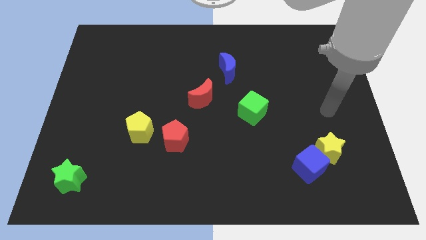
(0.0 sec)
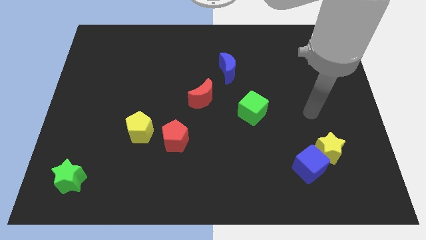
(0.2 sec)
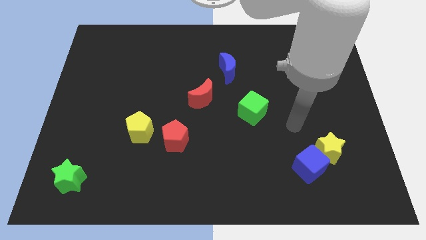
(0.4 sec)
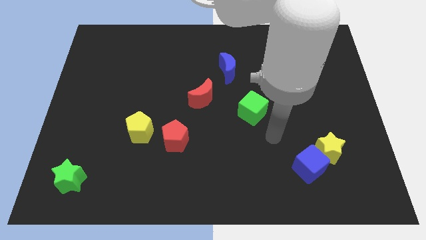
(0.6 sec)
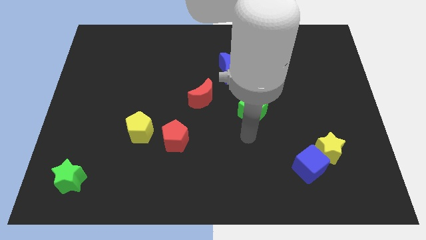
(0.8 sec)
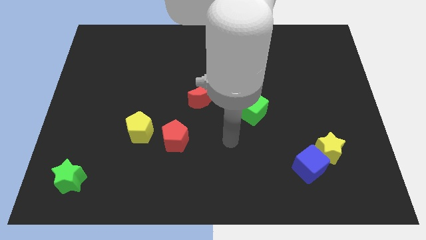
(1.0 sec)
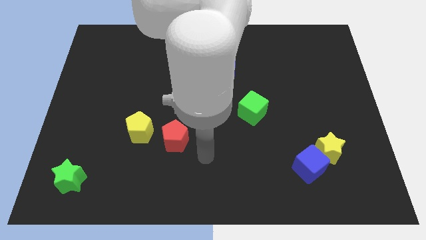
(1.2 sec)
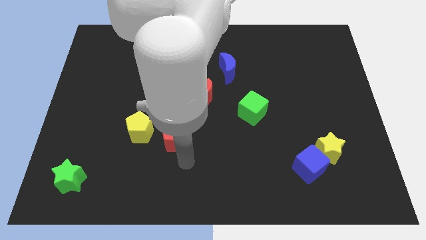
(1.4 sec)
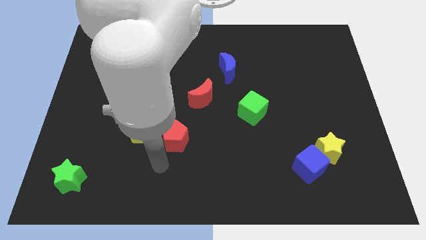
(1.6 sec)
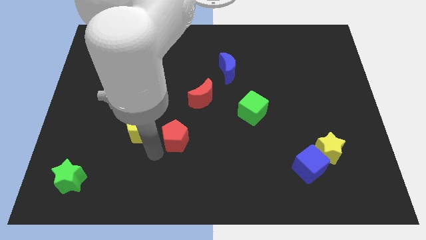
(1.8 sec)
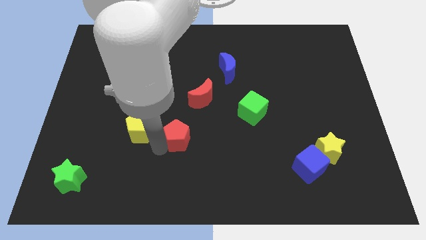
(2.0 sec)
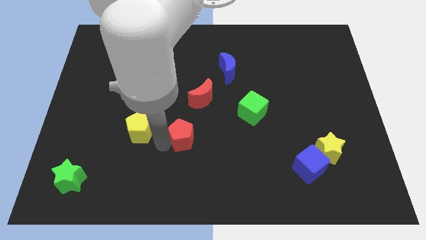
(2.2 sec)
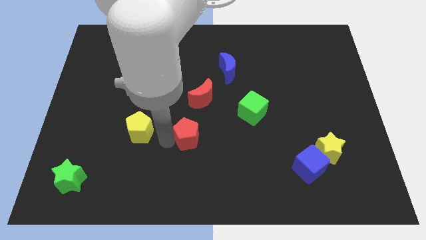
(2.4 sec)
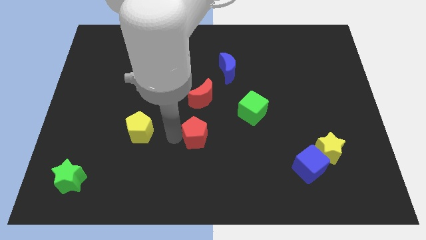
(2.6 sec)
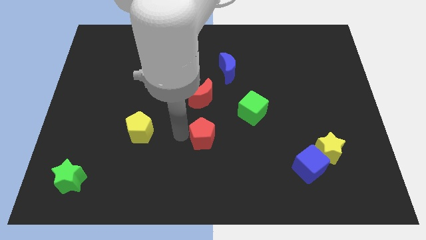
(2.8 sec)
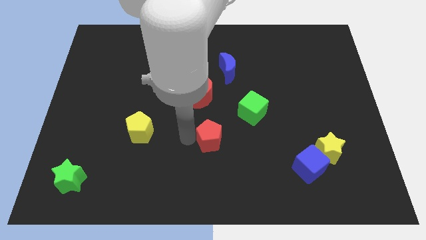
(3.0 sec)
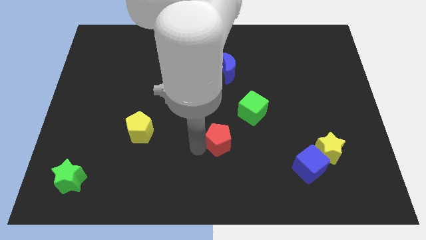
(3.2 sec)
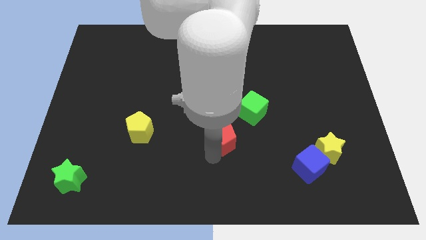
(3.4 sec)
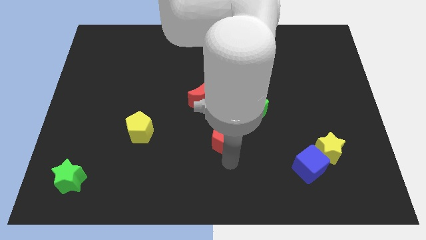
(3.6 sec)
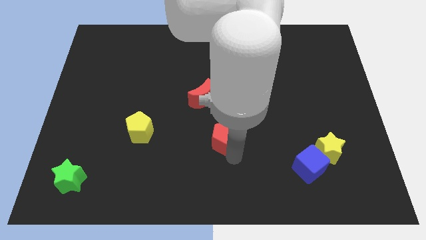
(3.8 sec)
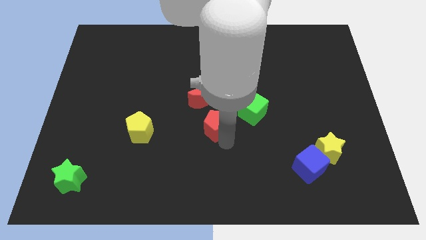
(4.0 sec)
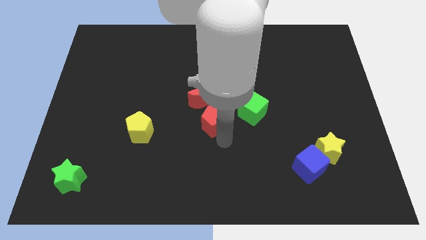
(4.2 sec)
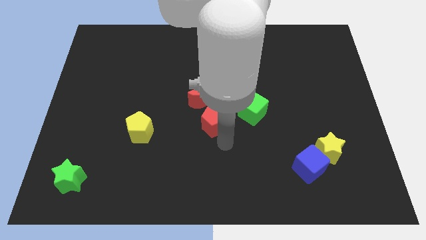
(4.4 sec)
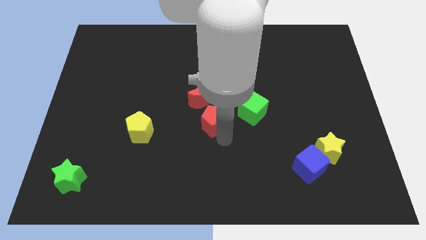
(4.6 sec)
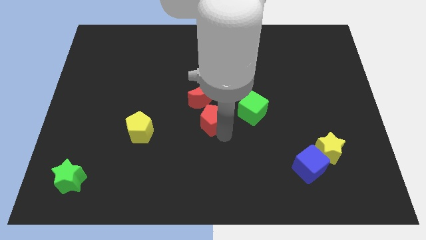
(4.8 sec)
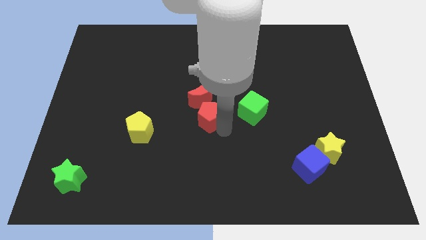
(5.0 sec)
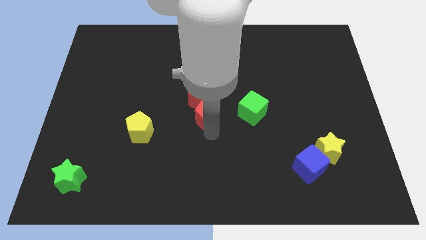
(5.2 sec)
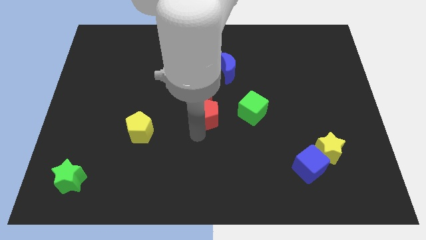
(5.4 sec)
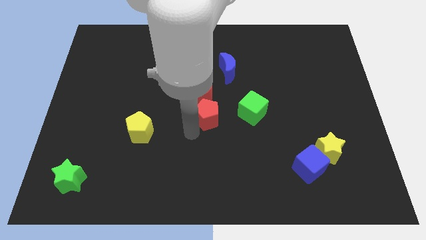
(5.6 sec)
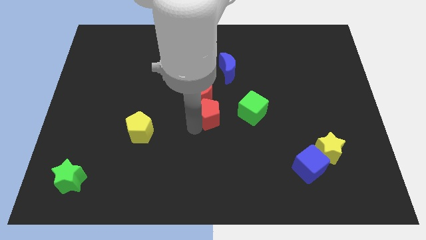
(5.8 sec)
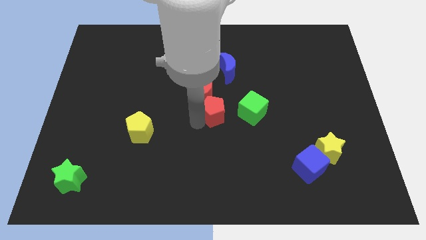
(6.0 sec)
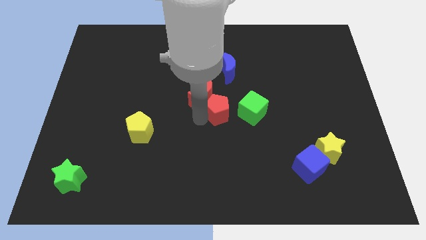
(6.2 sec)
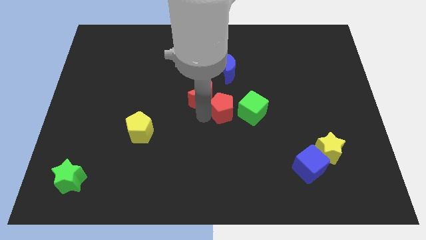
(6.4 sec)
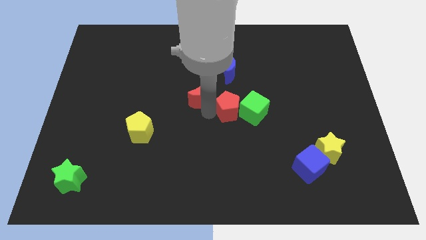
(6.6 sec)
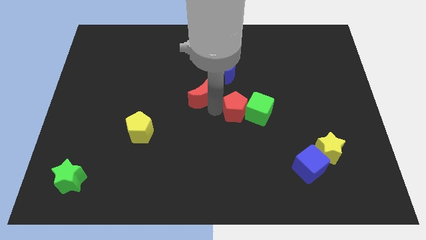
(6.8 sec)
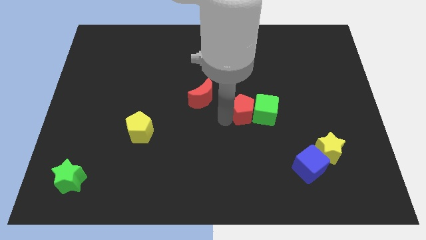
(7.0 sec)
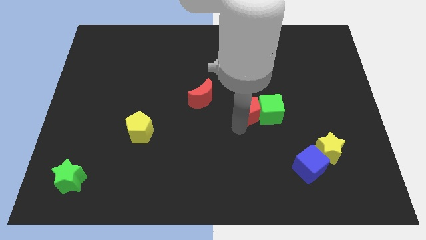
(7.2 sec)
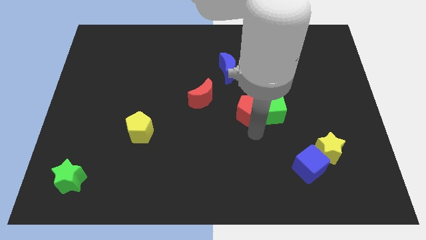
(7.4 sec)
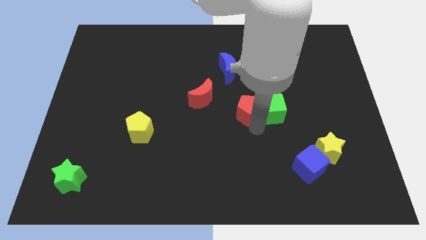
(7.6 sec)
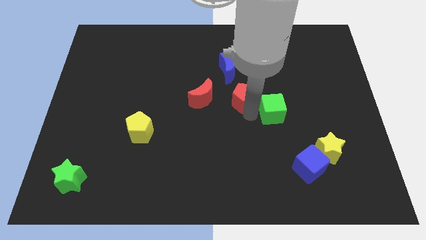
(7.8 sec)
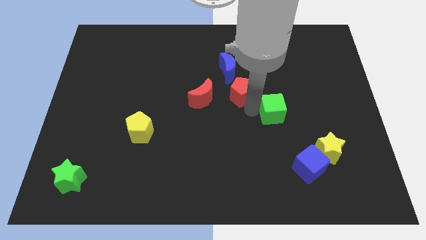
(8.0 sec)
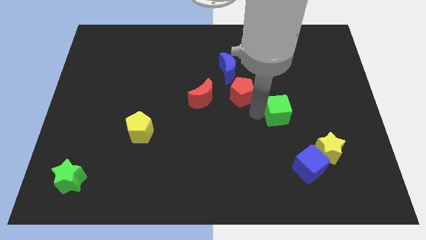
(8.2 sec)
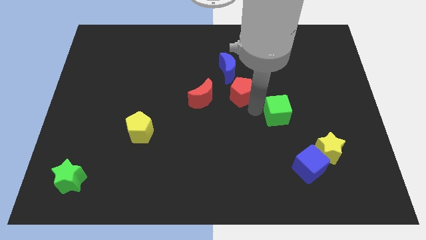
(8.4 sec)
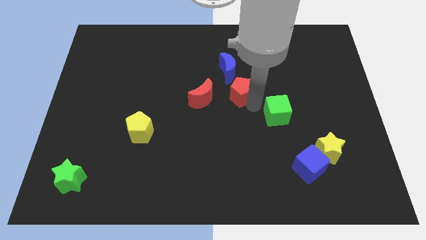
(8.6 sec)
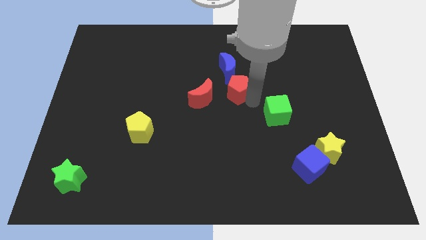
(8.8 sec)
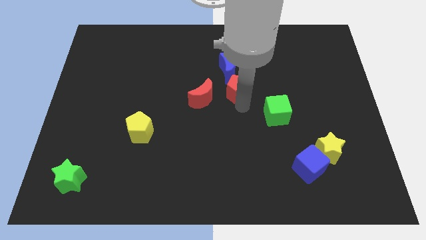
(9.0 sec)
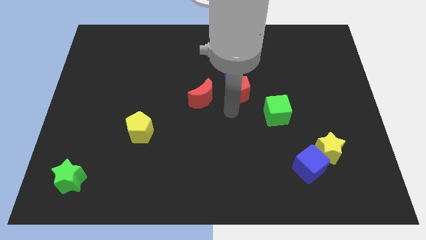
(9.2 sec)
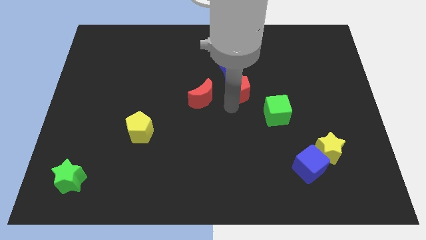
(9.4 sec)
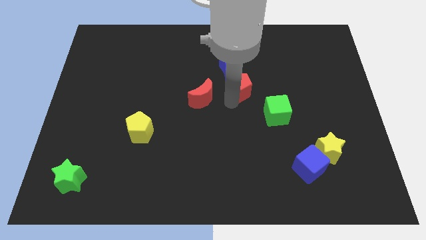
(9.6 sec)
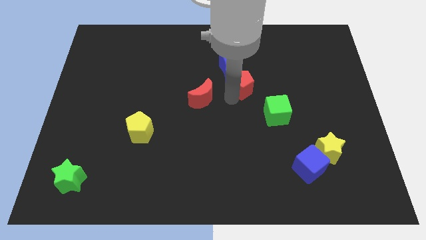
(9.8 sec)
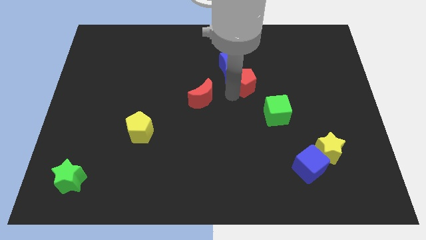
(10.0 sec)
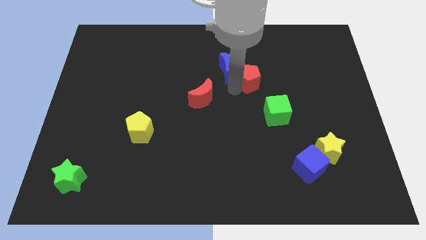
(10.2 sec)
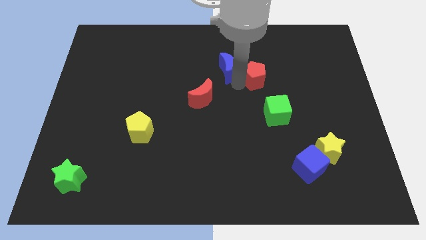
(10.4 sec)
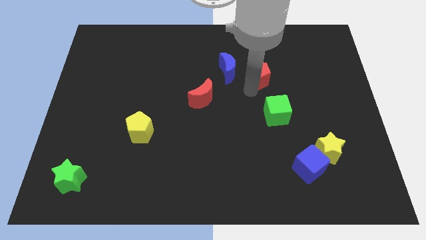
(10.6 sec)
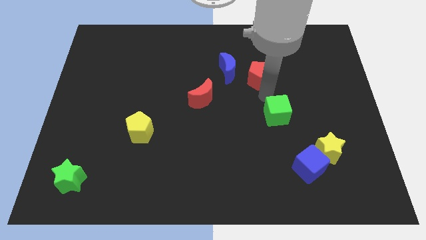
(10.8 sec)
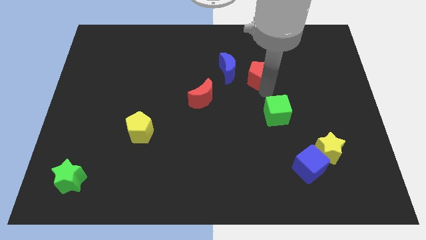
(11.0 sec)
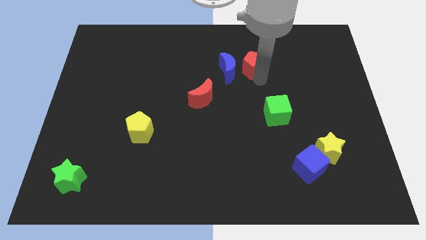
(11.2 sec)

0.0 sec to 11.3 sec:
move the red pentagon diagonally up and to the right of the blue moon
